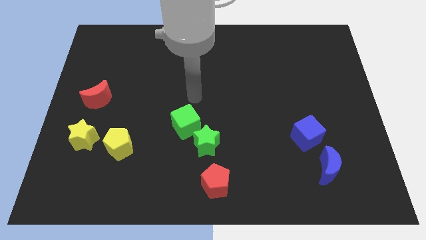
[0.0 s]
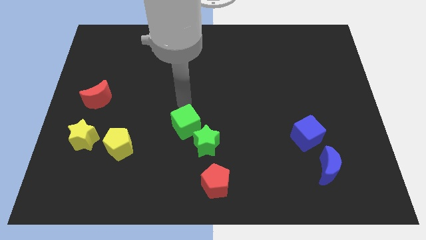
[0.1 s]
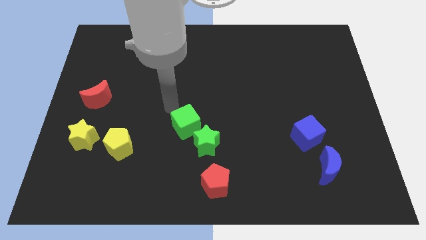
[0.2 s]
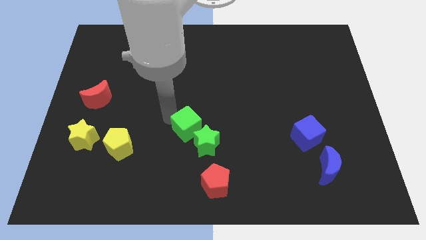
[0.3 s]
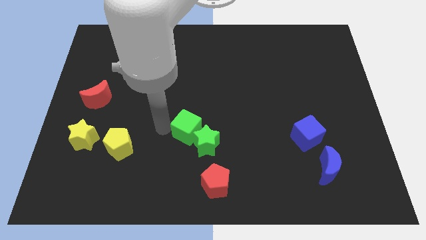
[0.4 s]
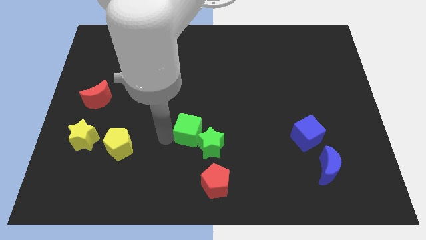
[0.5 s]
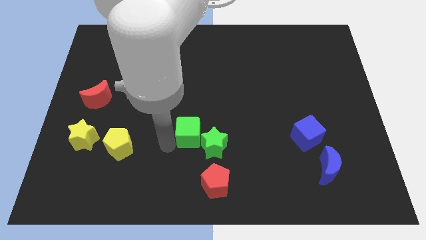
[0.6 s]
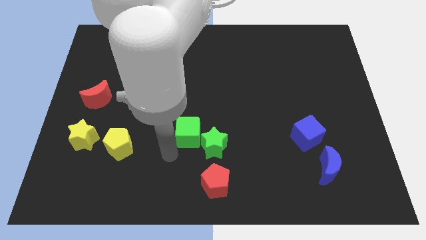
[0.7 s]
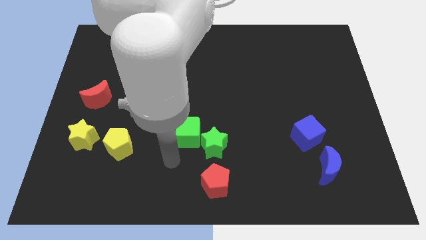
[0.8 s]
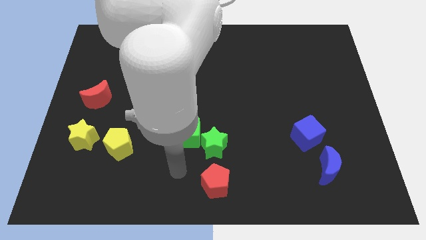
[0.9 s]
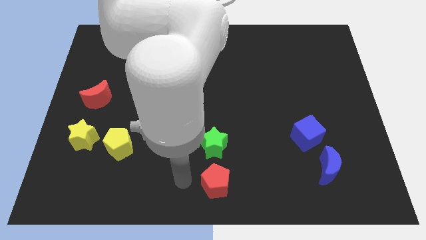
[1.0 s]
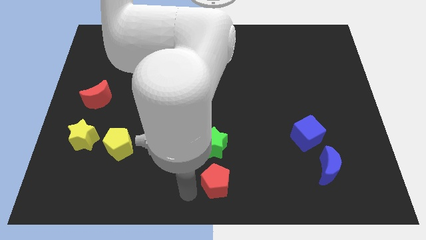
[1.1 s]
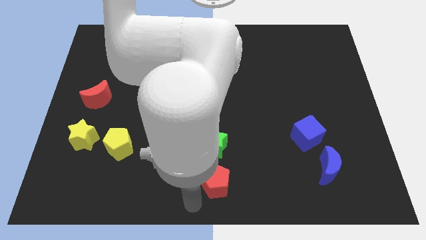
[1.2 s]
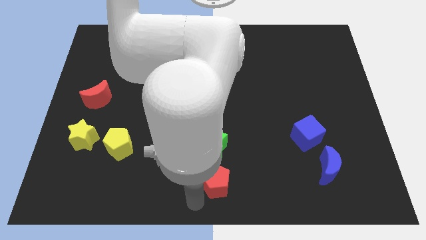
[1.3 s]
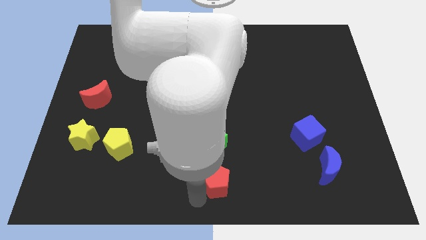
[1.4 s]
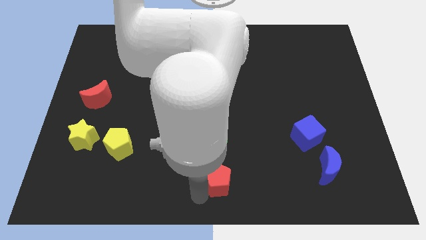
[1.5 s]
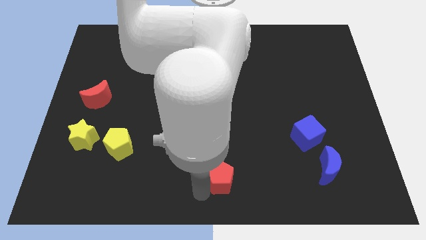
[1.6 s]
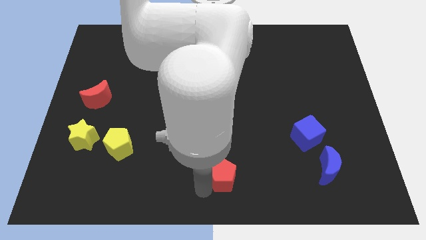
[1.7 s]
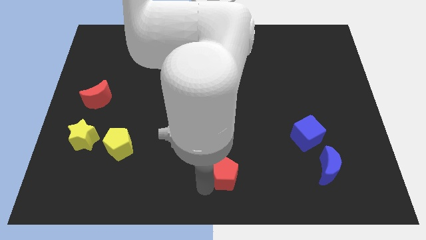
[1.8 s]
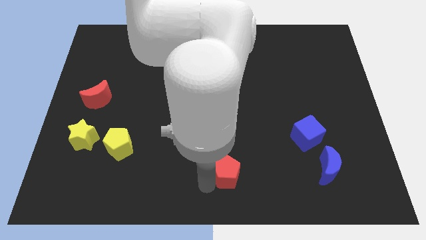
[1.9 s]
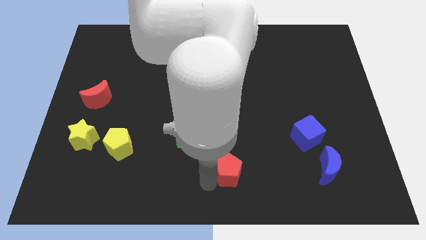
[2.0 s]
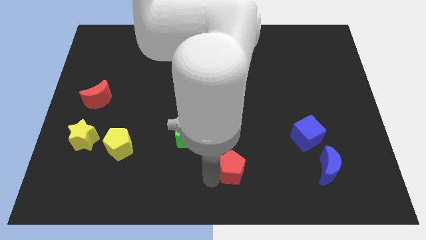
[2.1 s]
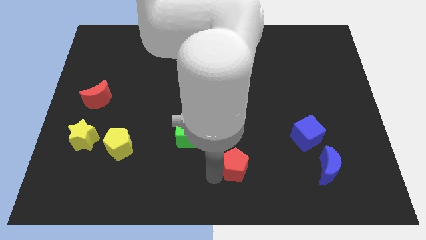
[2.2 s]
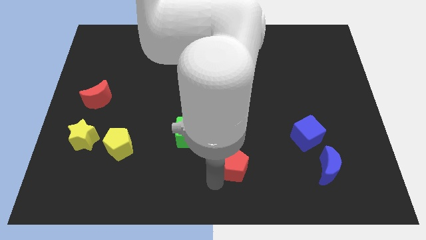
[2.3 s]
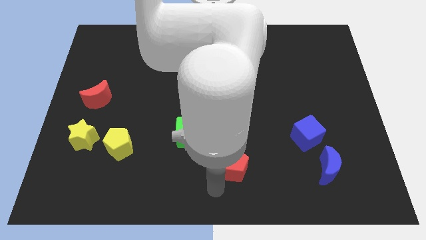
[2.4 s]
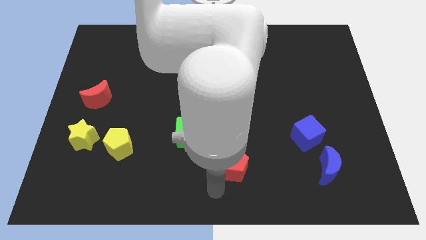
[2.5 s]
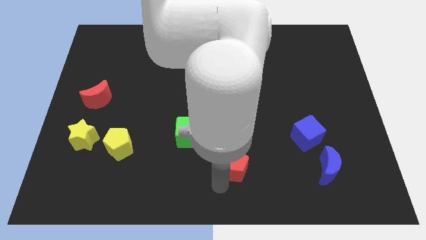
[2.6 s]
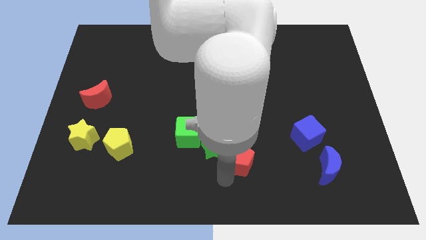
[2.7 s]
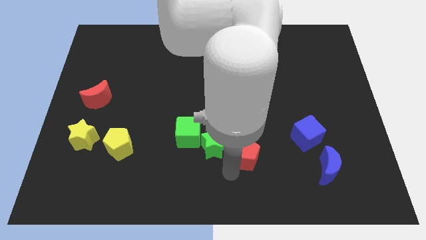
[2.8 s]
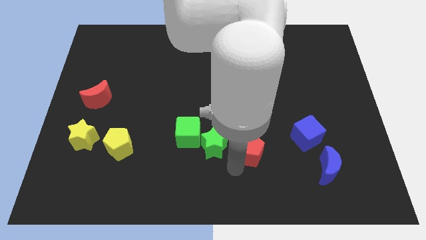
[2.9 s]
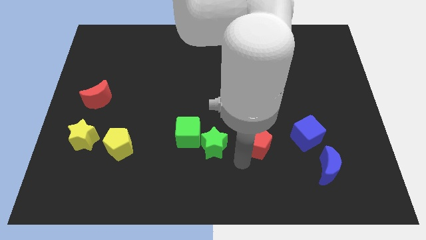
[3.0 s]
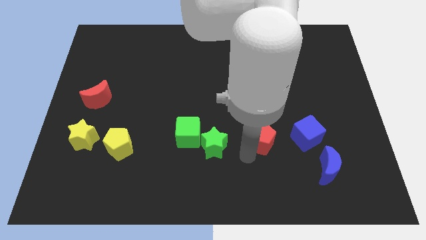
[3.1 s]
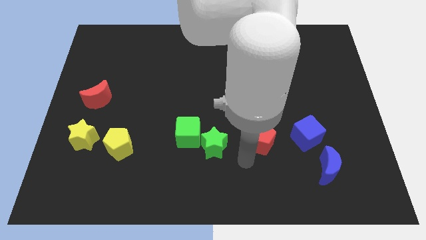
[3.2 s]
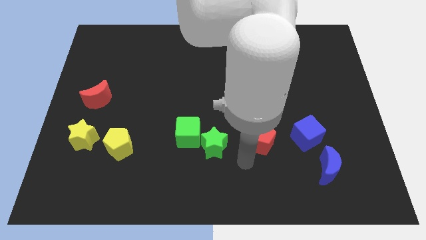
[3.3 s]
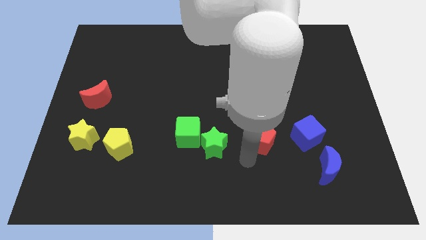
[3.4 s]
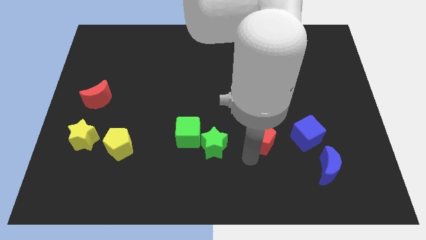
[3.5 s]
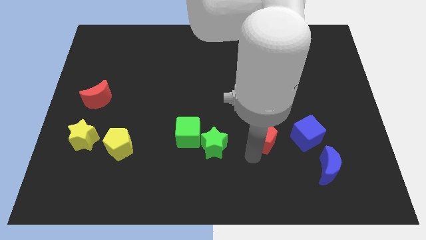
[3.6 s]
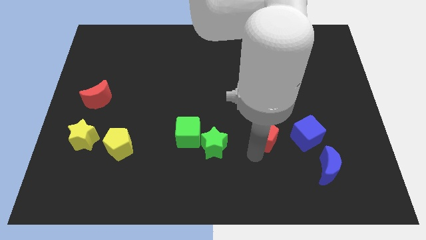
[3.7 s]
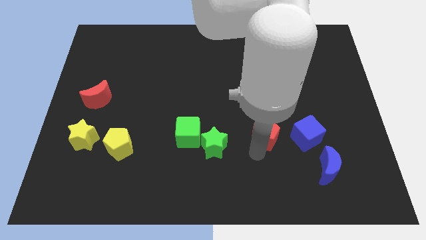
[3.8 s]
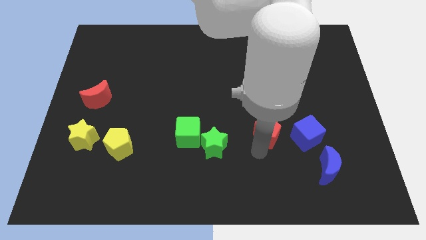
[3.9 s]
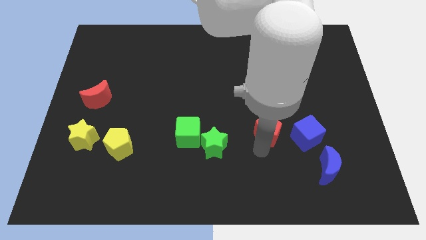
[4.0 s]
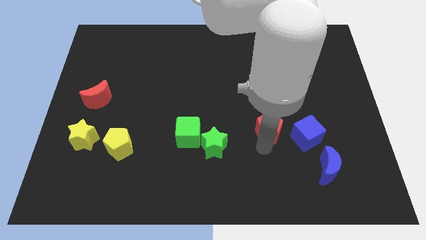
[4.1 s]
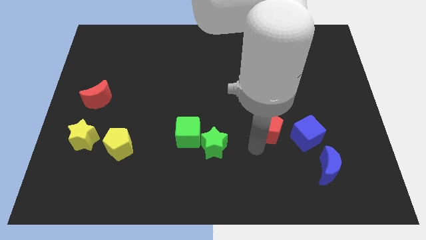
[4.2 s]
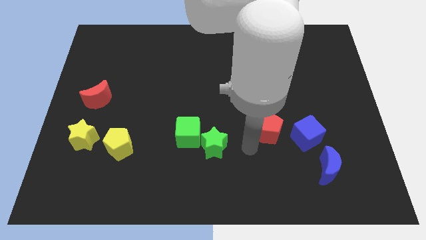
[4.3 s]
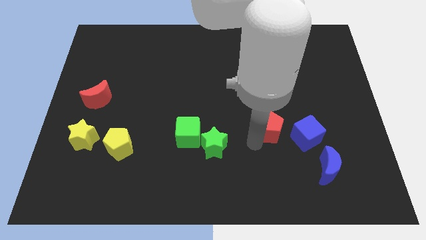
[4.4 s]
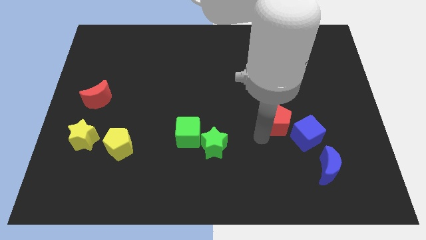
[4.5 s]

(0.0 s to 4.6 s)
push the red pentagon upwards and right

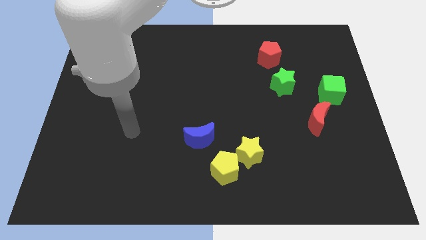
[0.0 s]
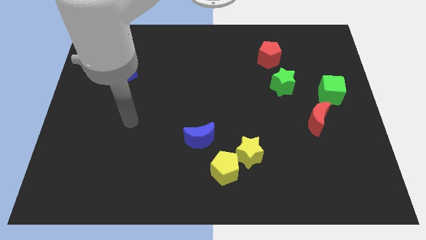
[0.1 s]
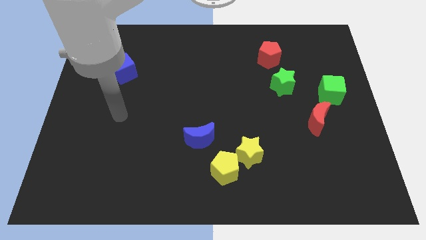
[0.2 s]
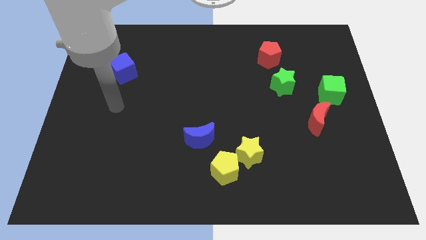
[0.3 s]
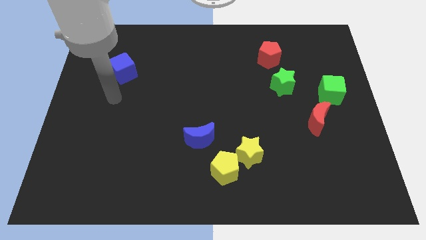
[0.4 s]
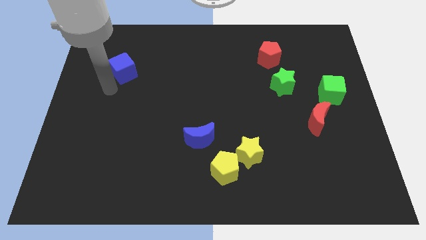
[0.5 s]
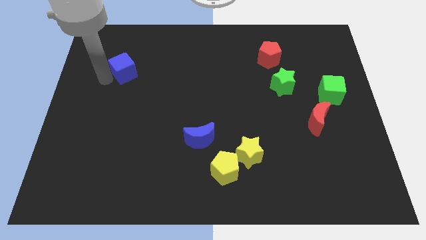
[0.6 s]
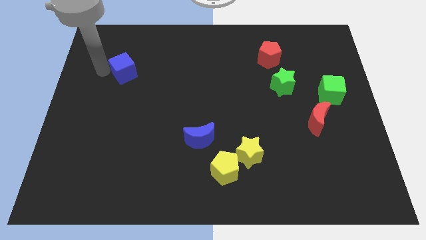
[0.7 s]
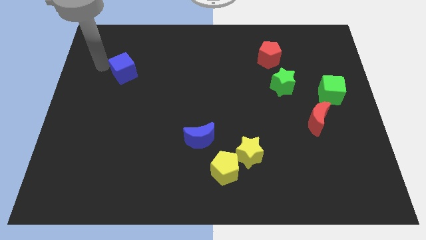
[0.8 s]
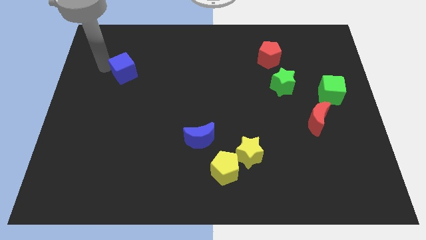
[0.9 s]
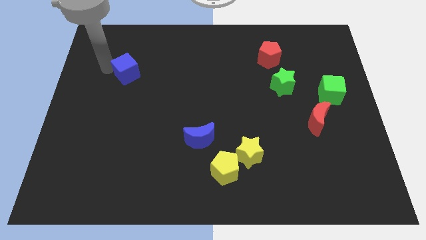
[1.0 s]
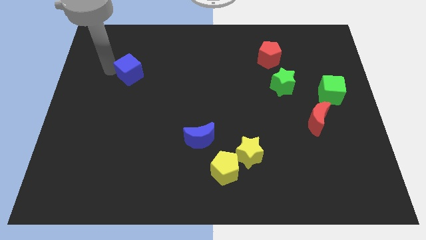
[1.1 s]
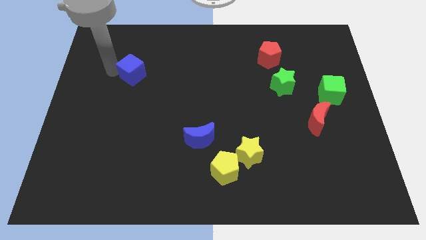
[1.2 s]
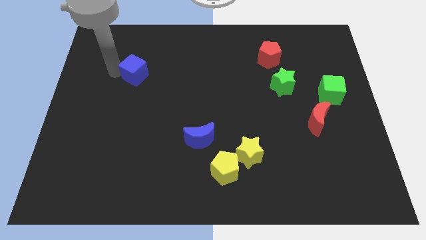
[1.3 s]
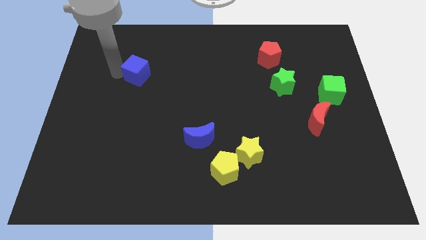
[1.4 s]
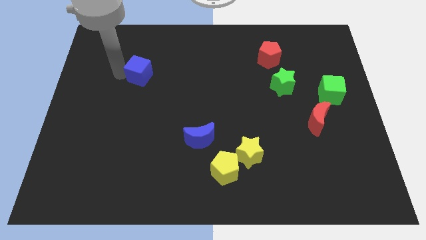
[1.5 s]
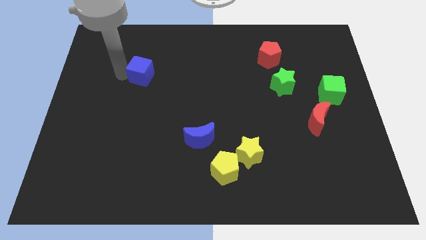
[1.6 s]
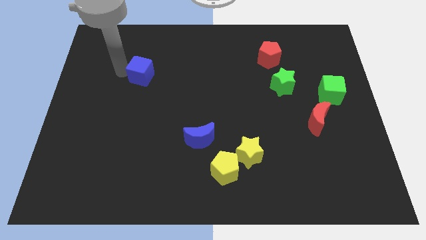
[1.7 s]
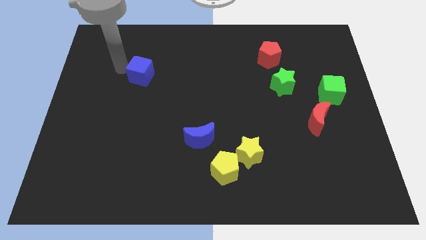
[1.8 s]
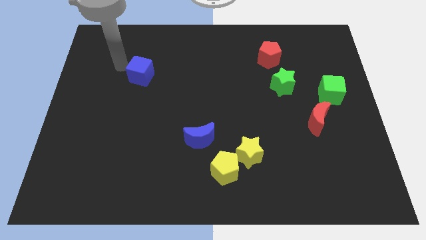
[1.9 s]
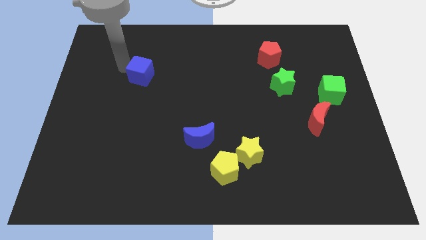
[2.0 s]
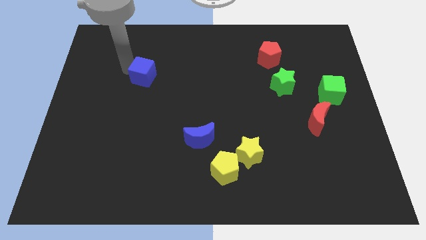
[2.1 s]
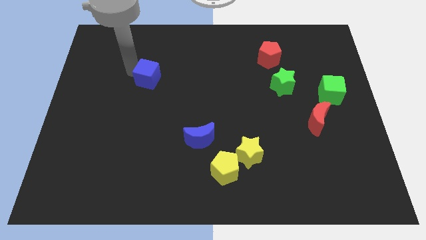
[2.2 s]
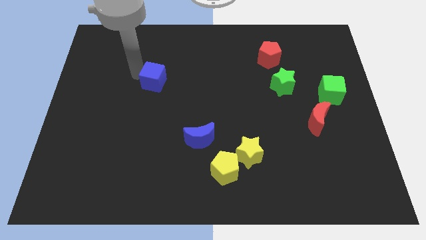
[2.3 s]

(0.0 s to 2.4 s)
push the blue cube right somewhat

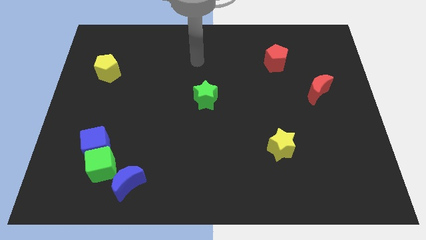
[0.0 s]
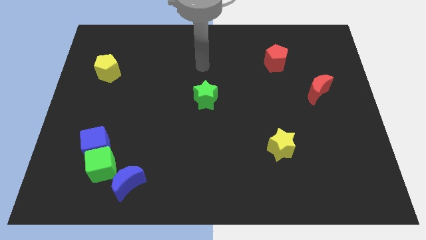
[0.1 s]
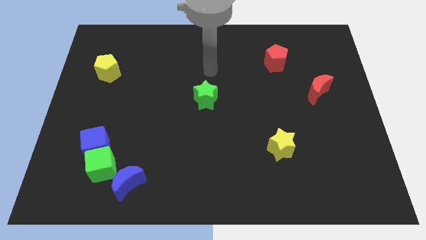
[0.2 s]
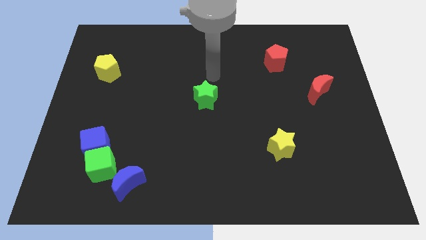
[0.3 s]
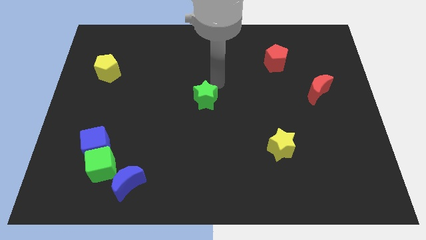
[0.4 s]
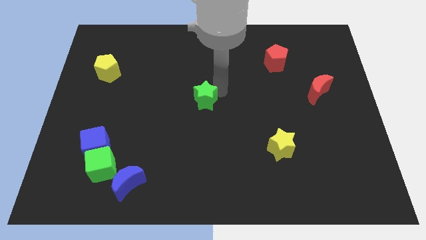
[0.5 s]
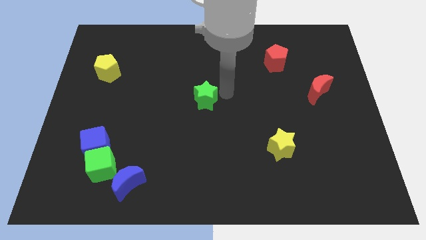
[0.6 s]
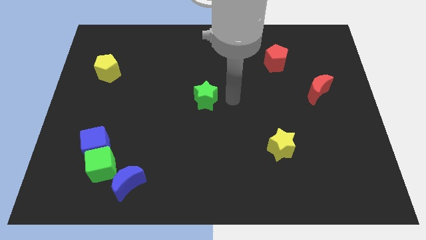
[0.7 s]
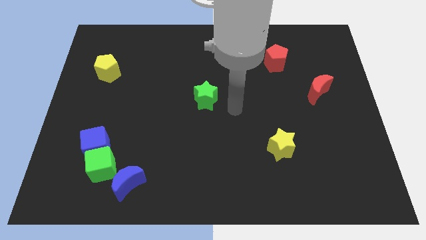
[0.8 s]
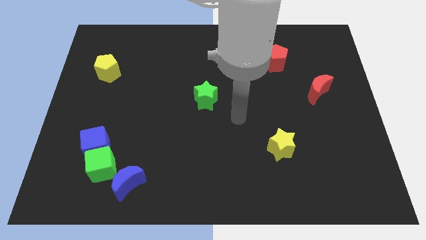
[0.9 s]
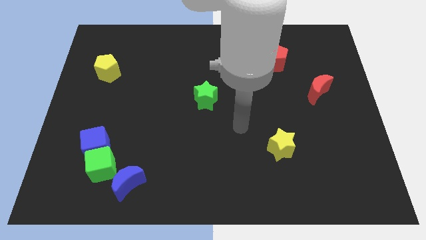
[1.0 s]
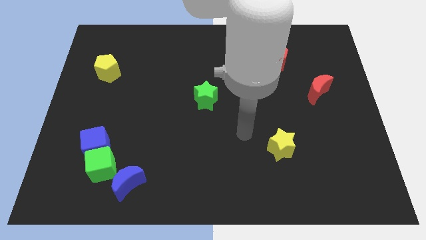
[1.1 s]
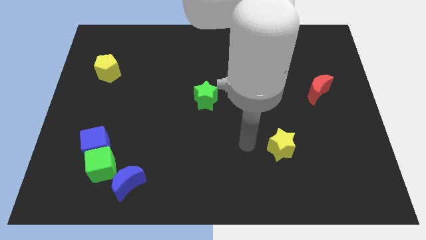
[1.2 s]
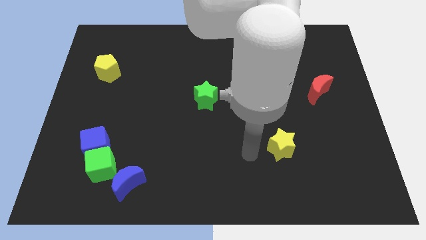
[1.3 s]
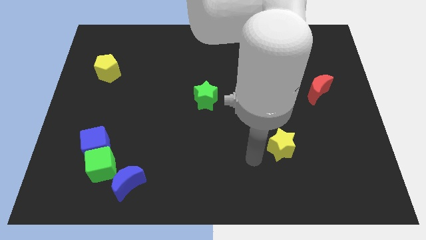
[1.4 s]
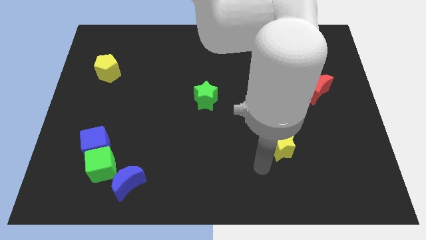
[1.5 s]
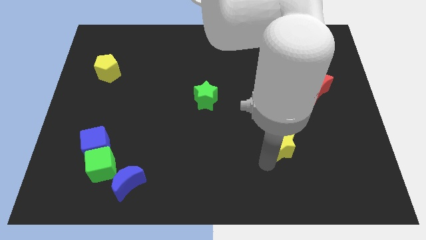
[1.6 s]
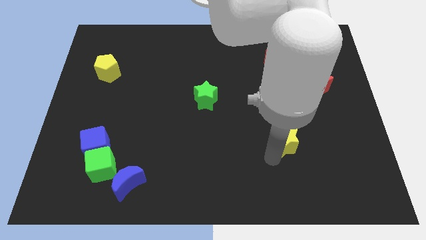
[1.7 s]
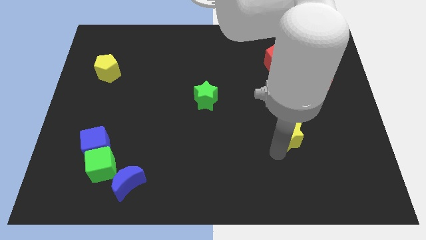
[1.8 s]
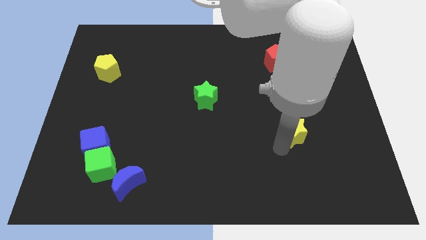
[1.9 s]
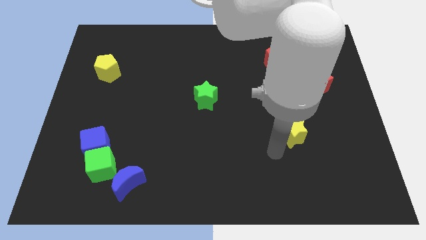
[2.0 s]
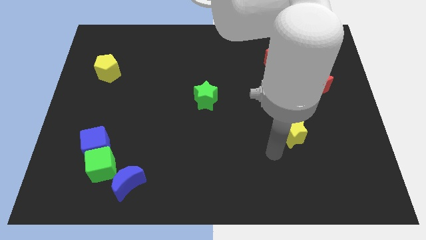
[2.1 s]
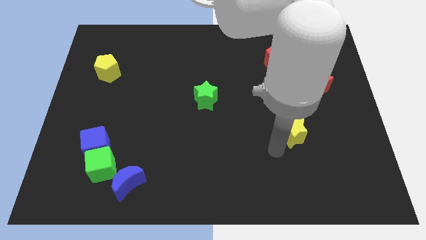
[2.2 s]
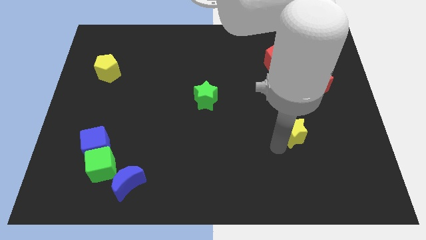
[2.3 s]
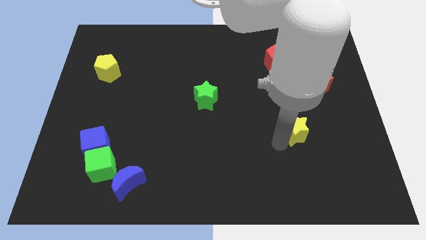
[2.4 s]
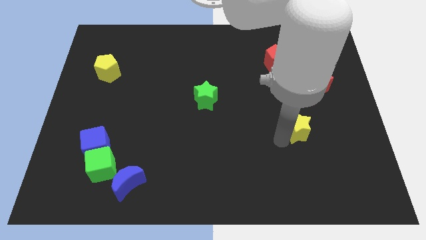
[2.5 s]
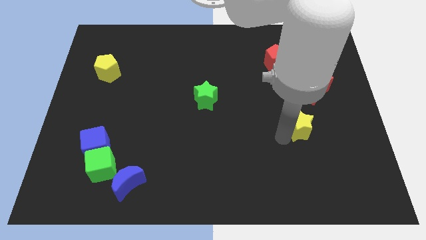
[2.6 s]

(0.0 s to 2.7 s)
slightly slide the yellow star up and then right
